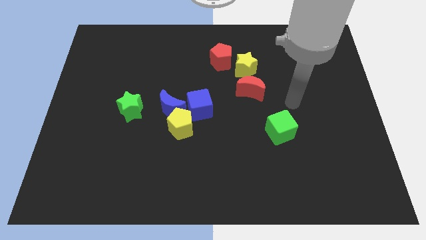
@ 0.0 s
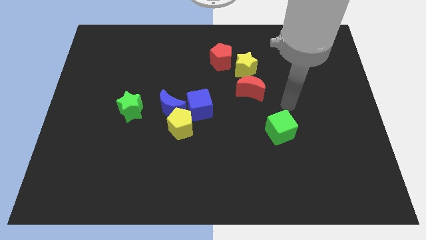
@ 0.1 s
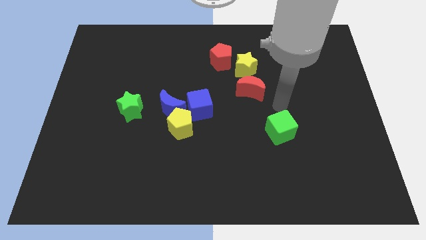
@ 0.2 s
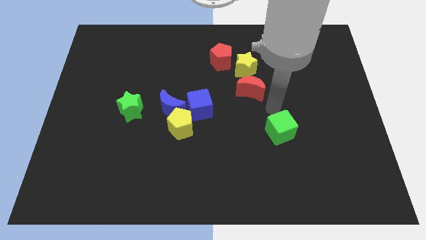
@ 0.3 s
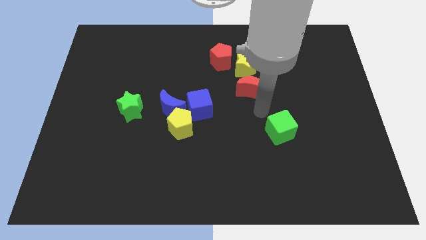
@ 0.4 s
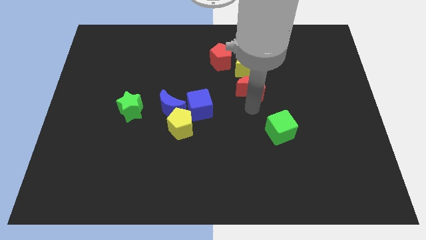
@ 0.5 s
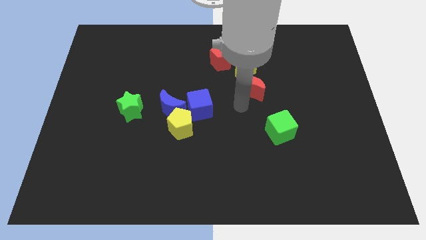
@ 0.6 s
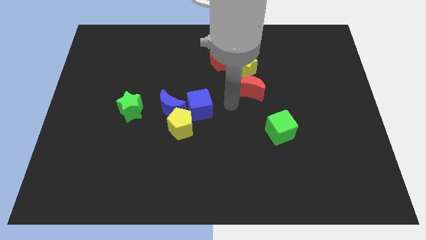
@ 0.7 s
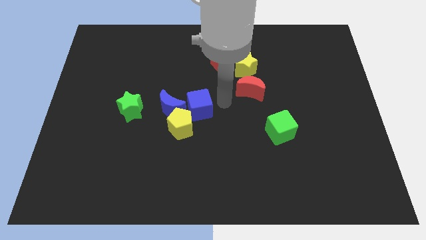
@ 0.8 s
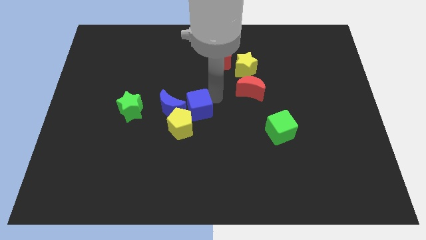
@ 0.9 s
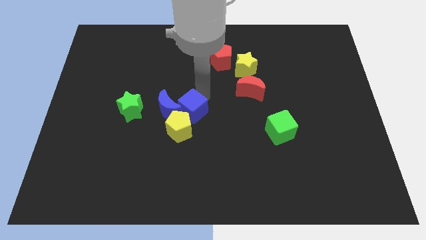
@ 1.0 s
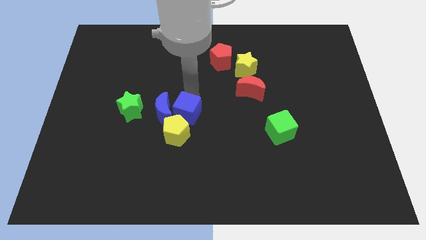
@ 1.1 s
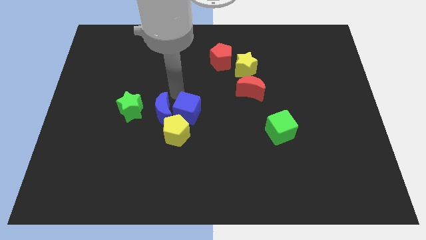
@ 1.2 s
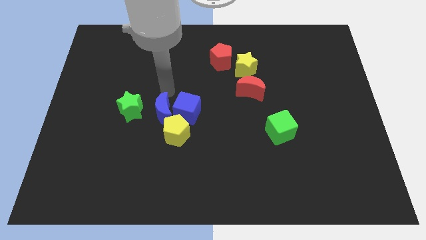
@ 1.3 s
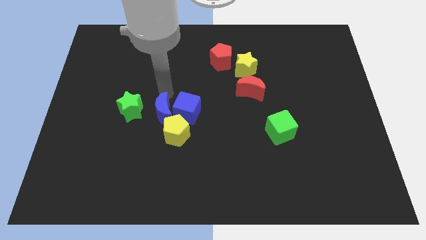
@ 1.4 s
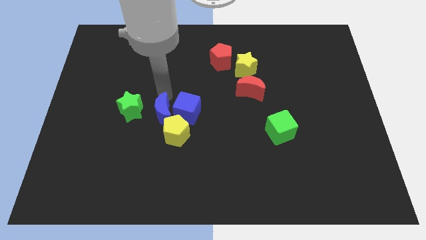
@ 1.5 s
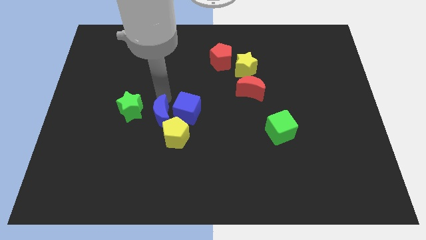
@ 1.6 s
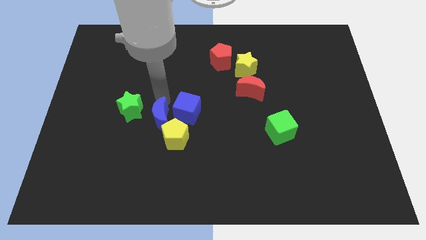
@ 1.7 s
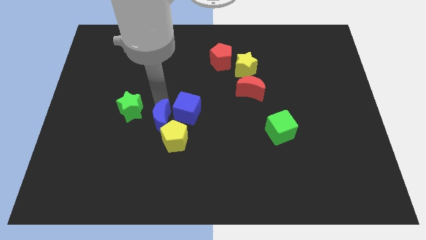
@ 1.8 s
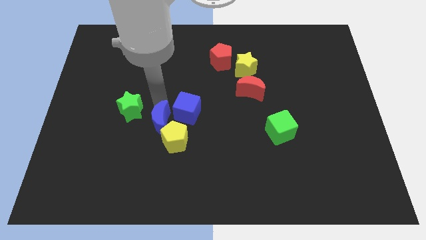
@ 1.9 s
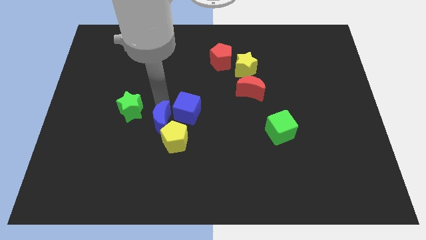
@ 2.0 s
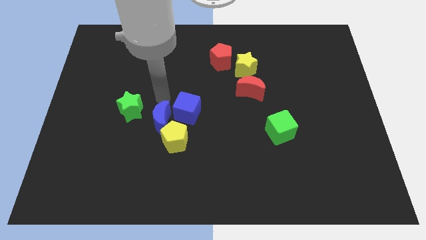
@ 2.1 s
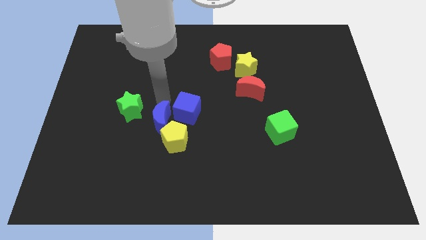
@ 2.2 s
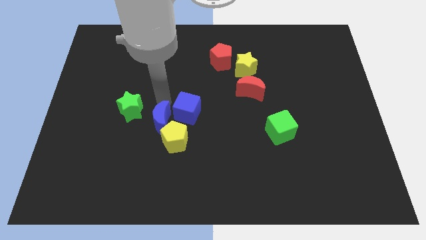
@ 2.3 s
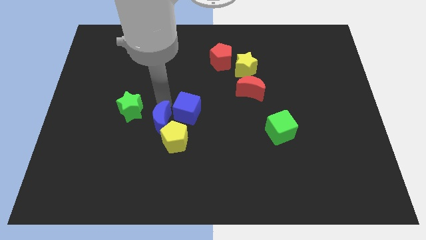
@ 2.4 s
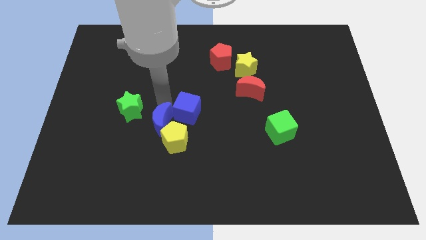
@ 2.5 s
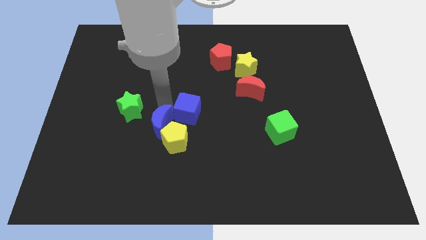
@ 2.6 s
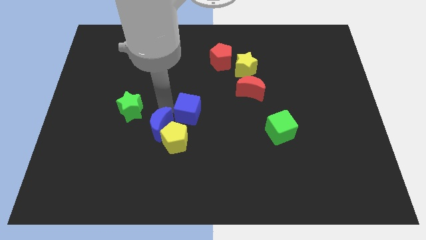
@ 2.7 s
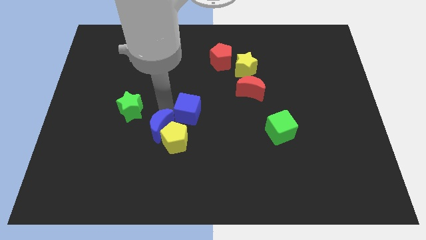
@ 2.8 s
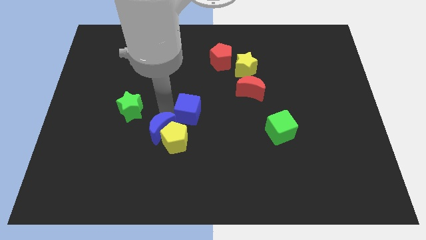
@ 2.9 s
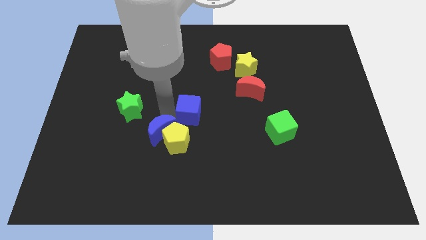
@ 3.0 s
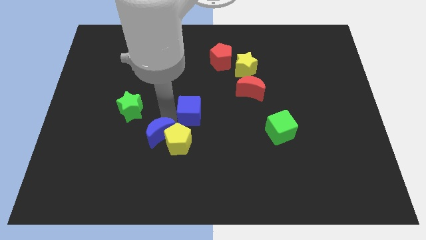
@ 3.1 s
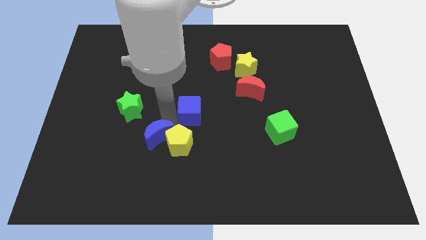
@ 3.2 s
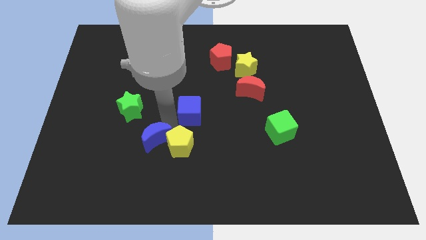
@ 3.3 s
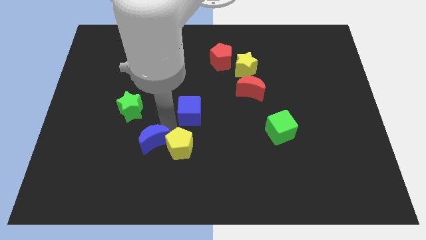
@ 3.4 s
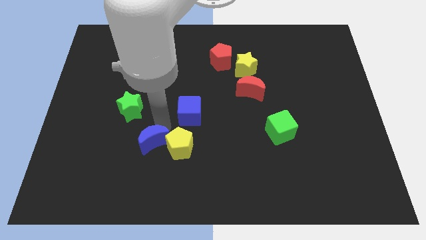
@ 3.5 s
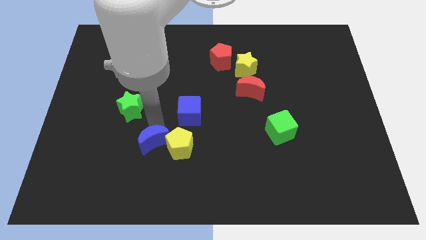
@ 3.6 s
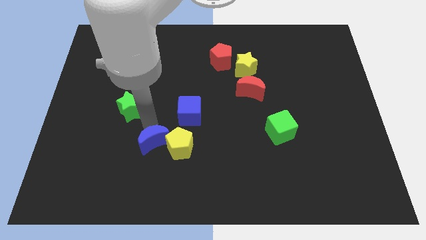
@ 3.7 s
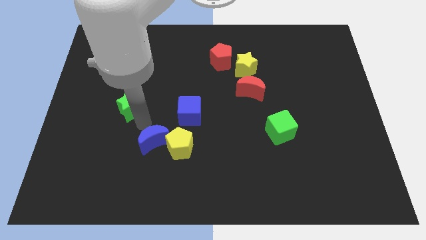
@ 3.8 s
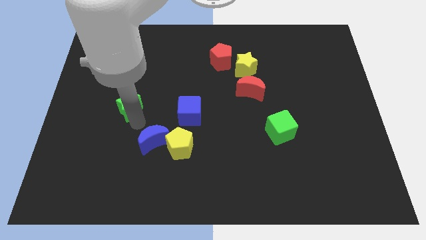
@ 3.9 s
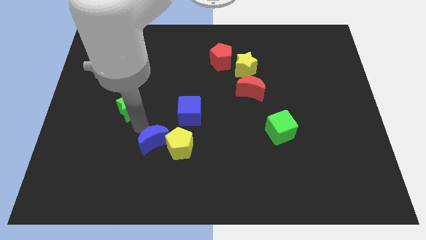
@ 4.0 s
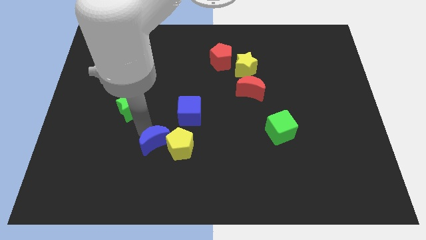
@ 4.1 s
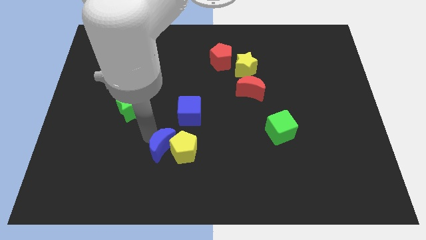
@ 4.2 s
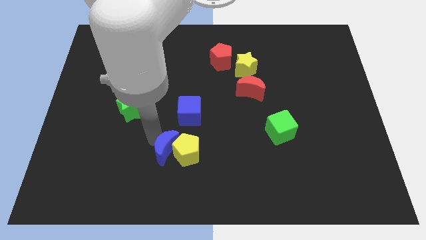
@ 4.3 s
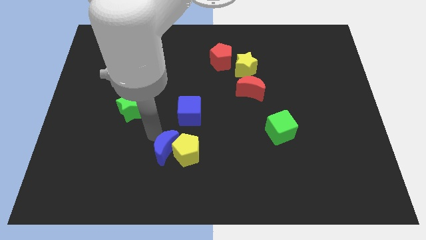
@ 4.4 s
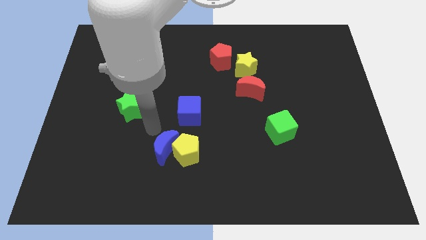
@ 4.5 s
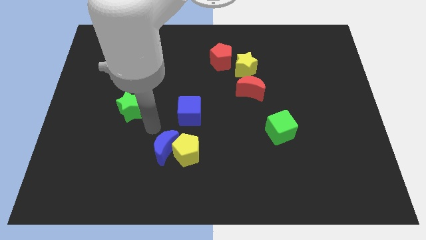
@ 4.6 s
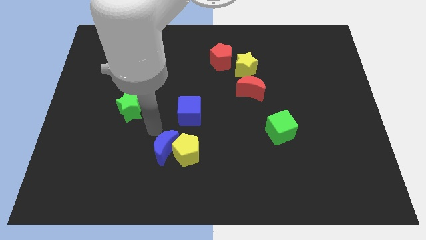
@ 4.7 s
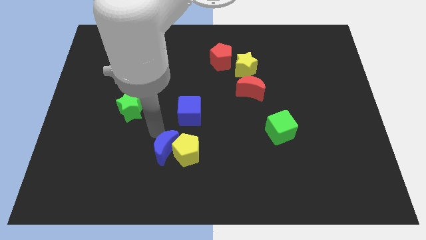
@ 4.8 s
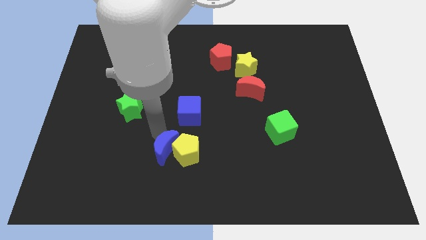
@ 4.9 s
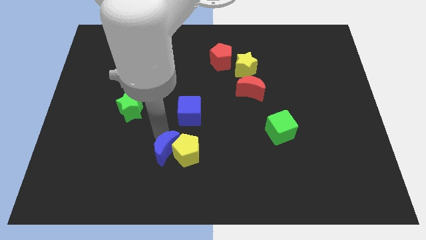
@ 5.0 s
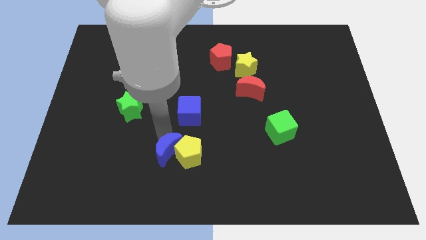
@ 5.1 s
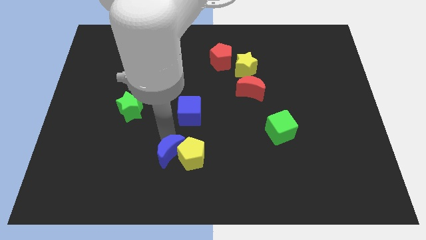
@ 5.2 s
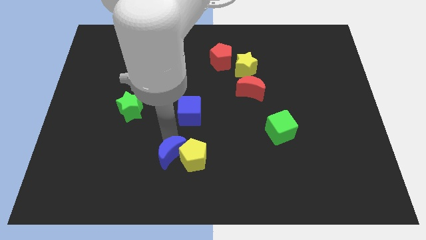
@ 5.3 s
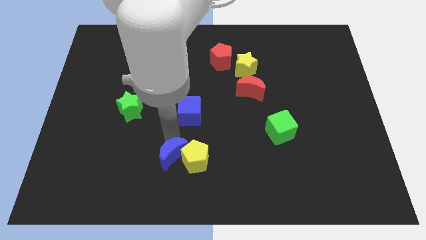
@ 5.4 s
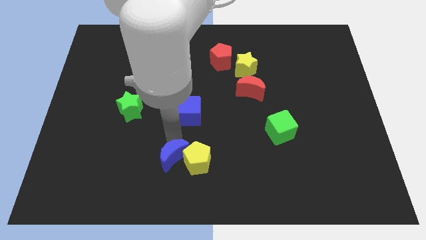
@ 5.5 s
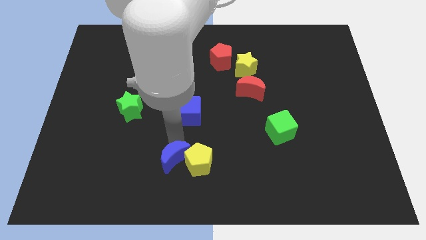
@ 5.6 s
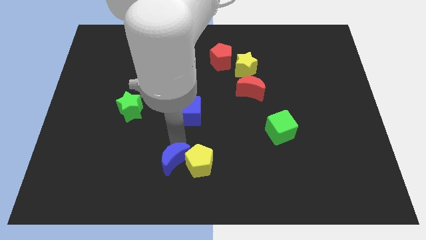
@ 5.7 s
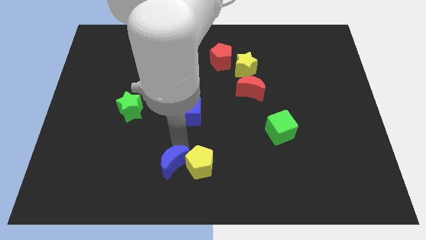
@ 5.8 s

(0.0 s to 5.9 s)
put the blue moon to the bottom
